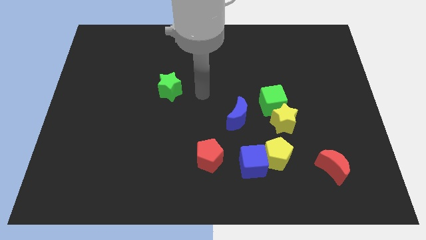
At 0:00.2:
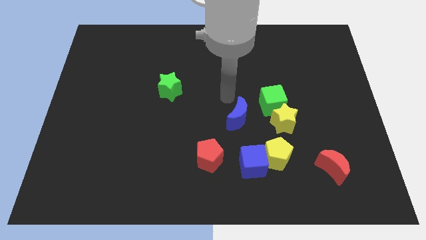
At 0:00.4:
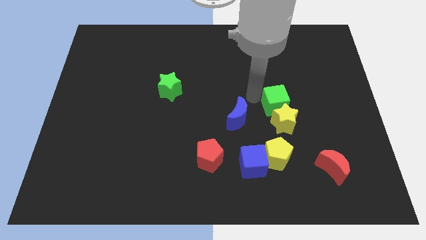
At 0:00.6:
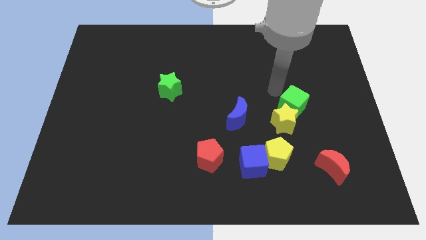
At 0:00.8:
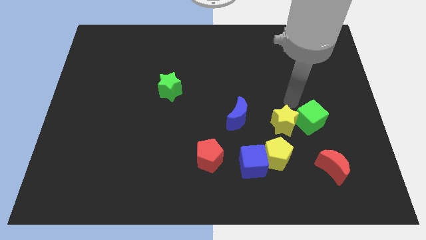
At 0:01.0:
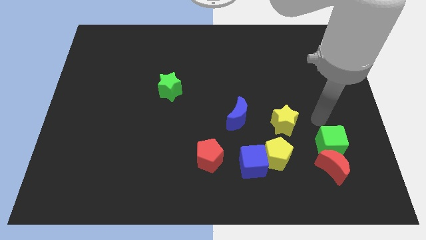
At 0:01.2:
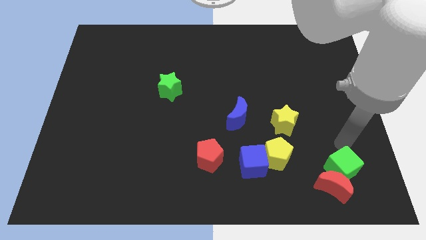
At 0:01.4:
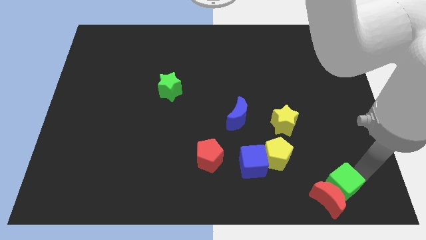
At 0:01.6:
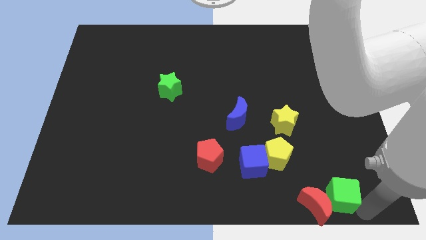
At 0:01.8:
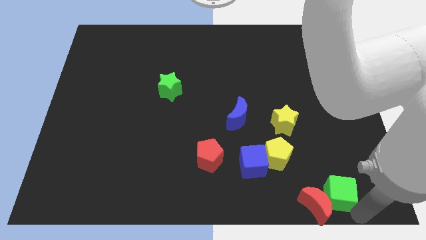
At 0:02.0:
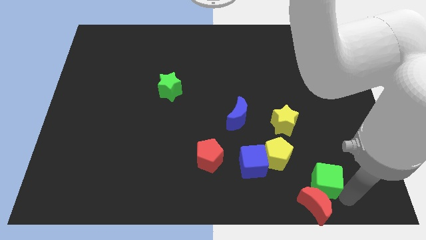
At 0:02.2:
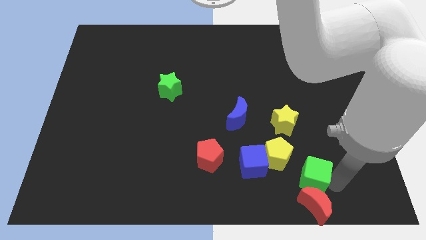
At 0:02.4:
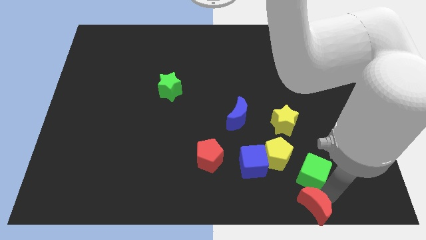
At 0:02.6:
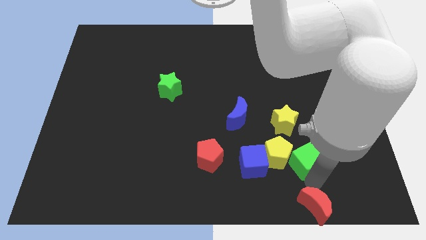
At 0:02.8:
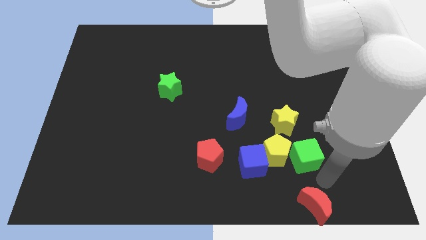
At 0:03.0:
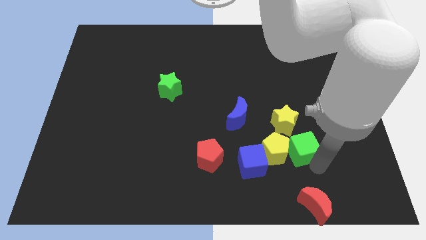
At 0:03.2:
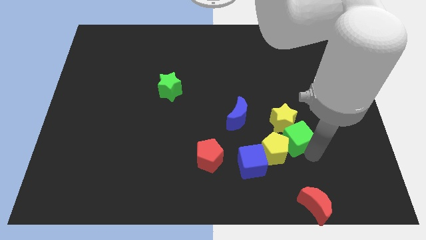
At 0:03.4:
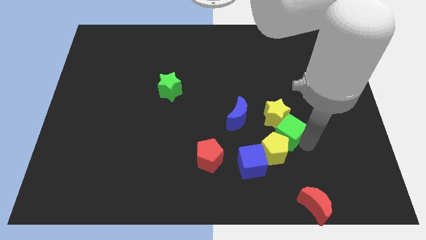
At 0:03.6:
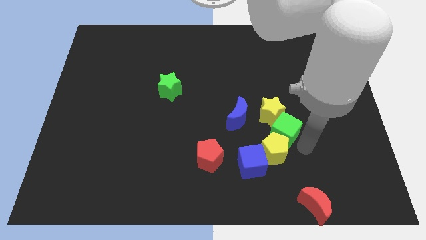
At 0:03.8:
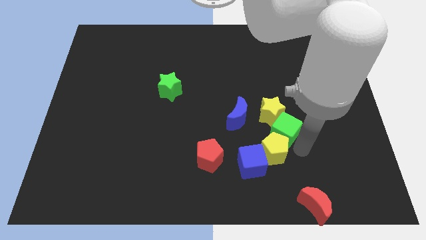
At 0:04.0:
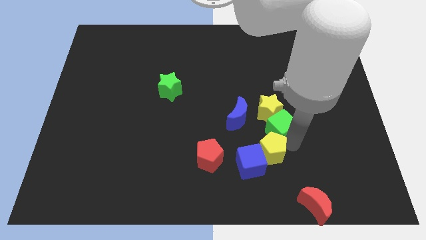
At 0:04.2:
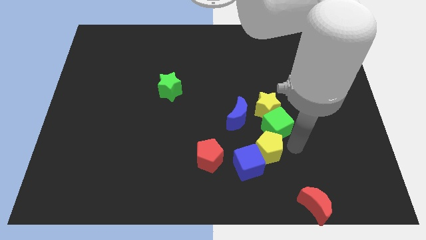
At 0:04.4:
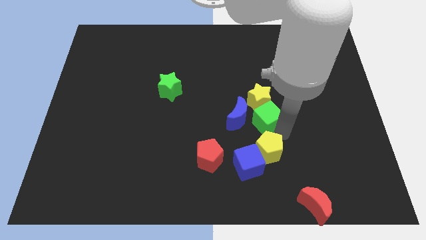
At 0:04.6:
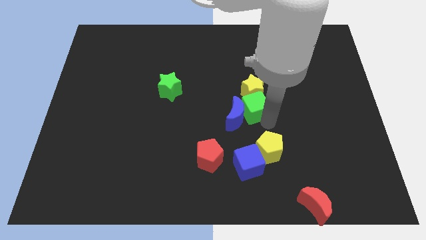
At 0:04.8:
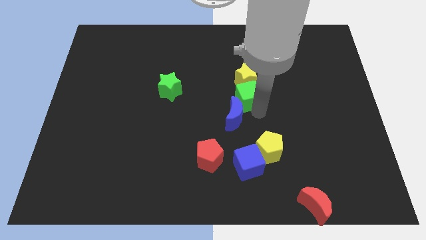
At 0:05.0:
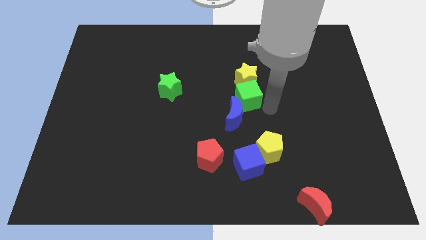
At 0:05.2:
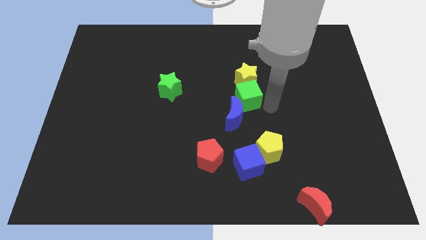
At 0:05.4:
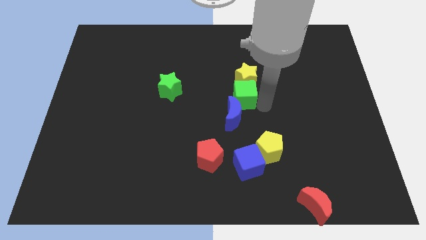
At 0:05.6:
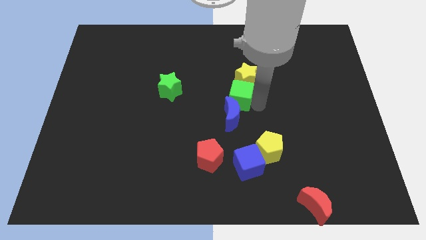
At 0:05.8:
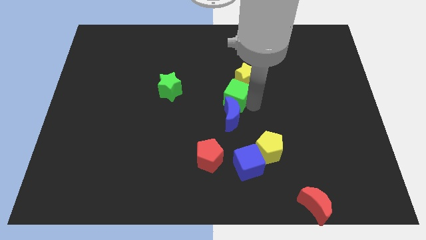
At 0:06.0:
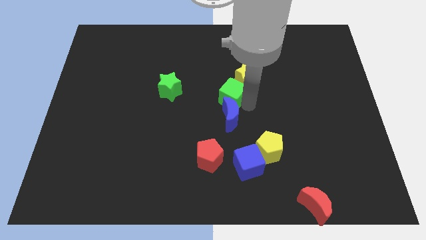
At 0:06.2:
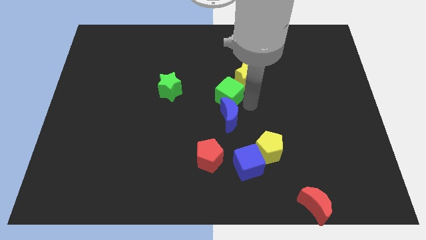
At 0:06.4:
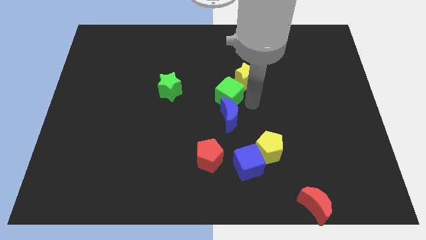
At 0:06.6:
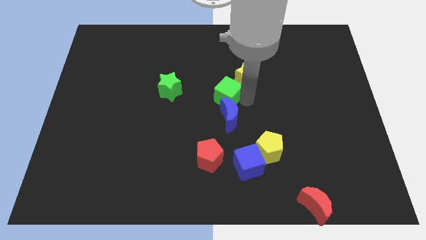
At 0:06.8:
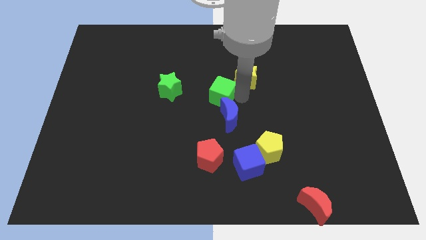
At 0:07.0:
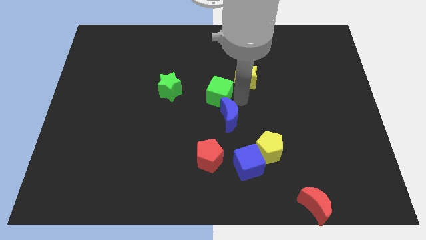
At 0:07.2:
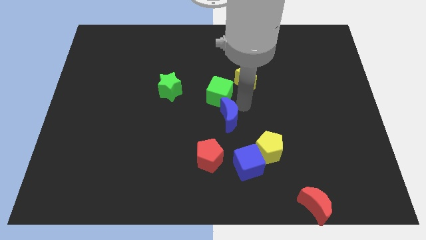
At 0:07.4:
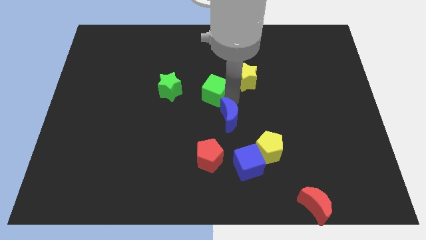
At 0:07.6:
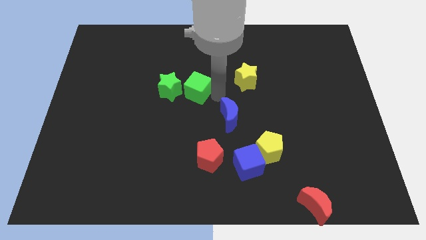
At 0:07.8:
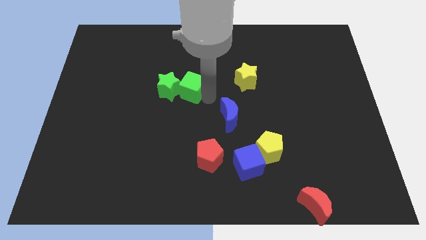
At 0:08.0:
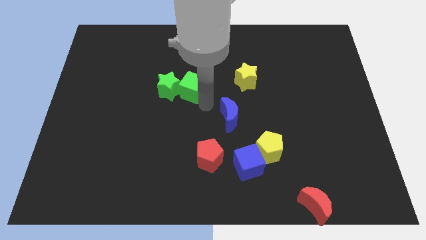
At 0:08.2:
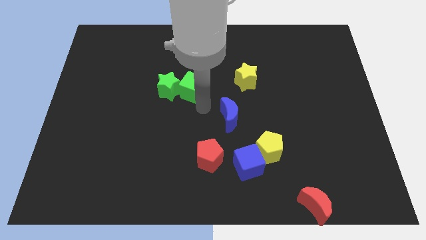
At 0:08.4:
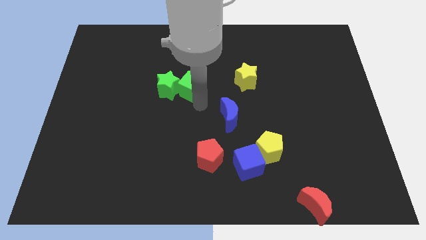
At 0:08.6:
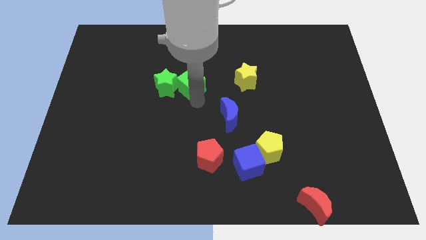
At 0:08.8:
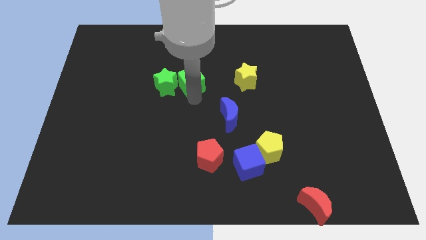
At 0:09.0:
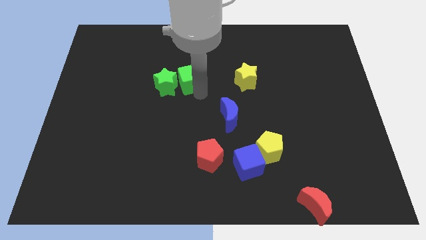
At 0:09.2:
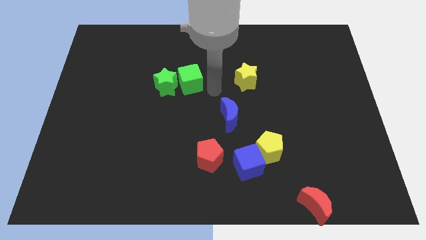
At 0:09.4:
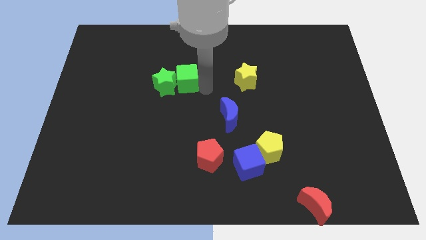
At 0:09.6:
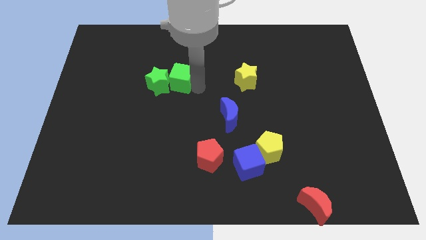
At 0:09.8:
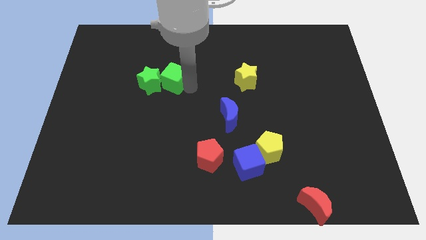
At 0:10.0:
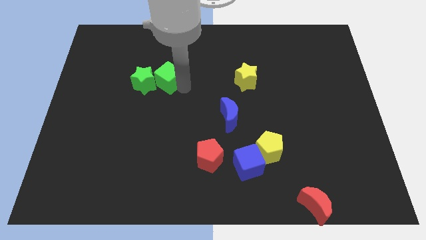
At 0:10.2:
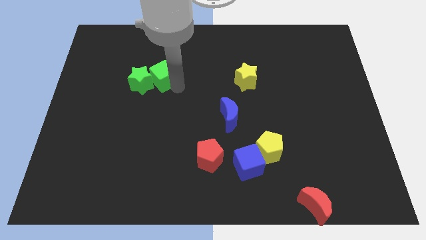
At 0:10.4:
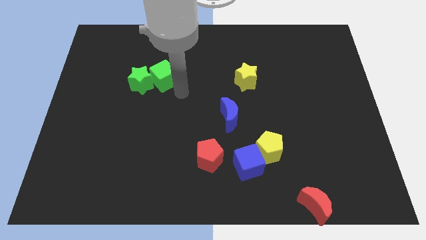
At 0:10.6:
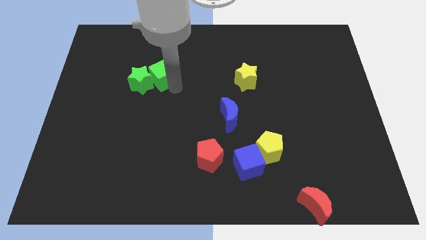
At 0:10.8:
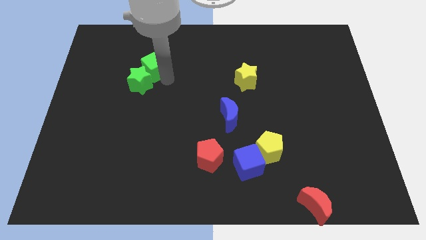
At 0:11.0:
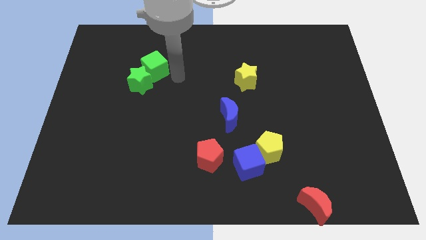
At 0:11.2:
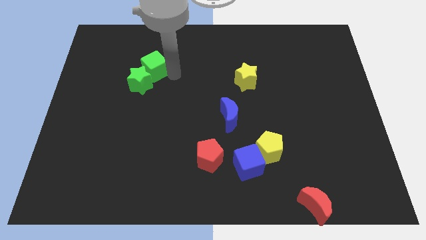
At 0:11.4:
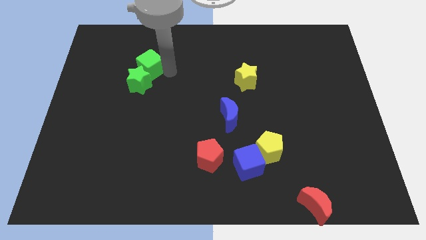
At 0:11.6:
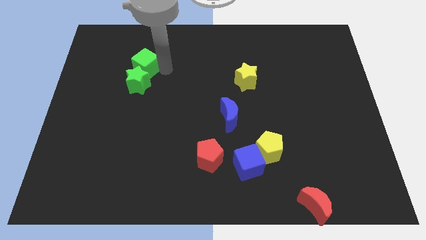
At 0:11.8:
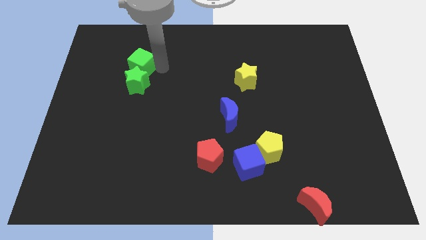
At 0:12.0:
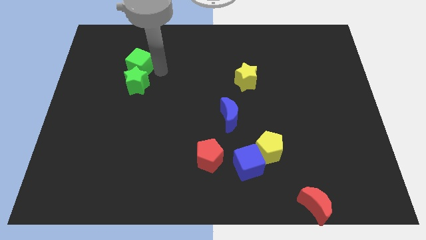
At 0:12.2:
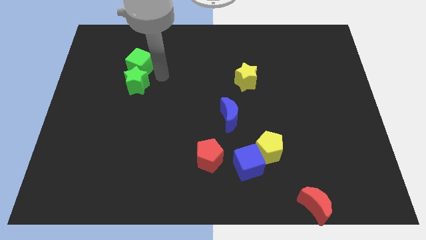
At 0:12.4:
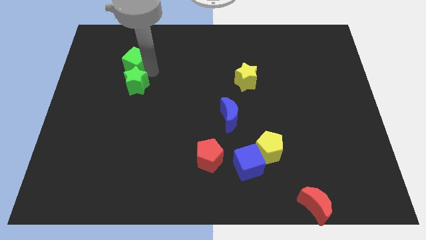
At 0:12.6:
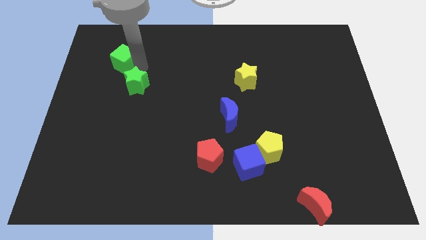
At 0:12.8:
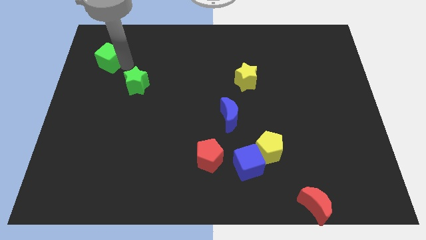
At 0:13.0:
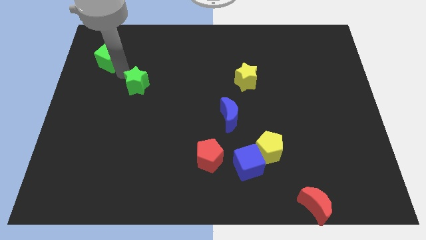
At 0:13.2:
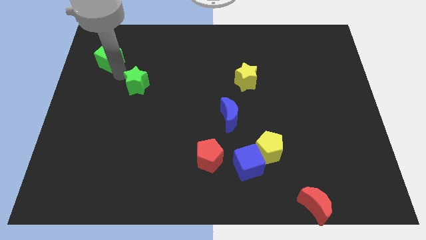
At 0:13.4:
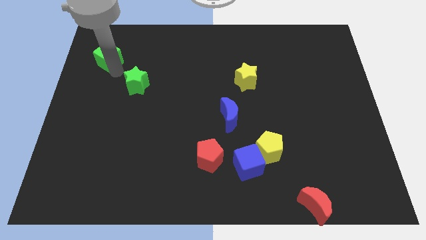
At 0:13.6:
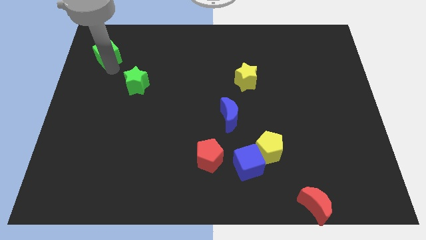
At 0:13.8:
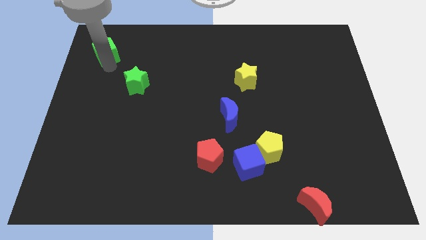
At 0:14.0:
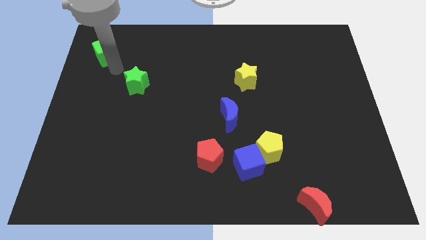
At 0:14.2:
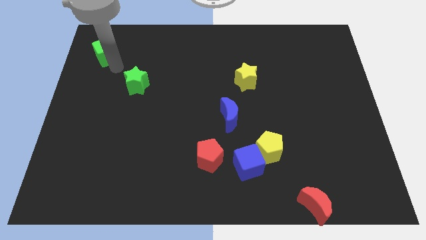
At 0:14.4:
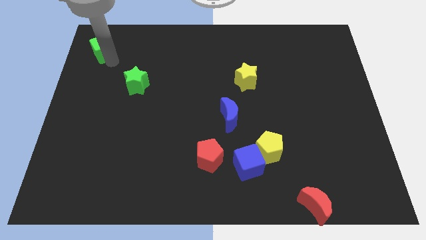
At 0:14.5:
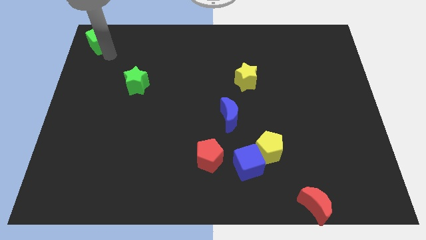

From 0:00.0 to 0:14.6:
push the green cube to the upper left corner
